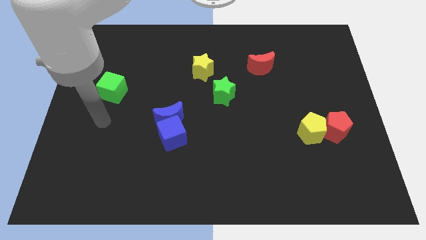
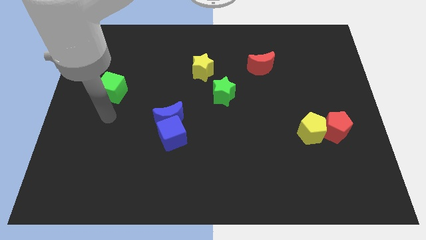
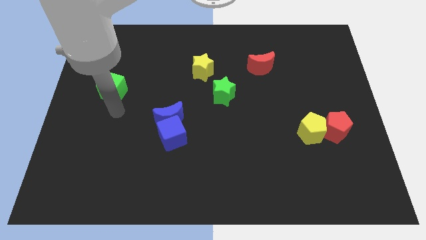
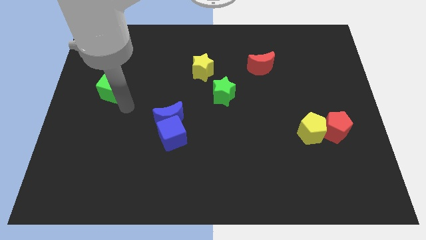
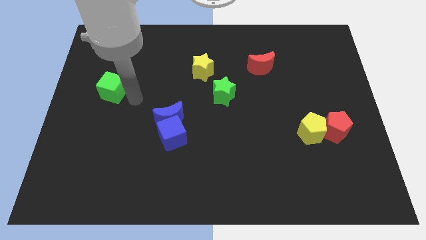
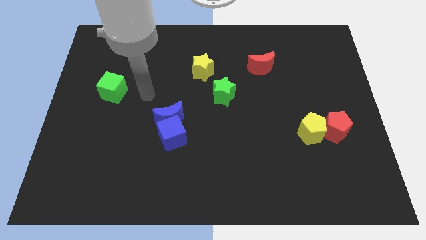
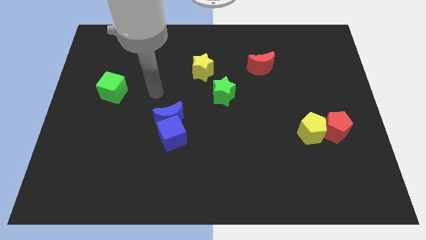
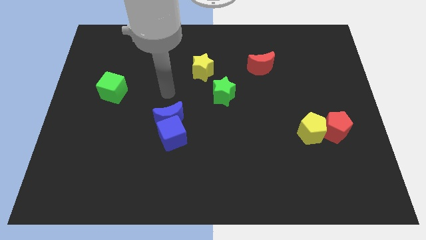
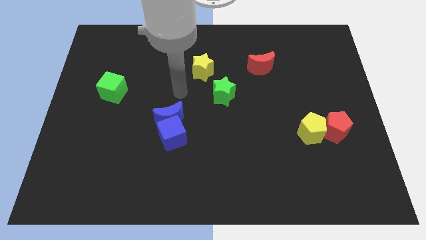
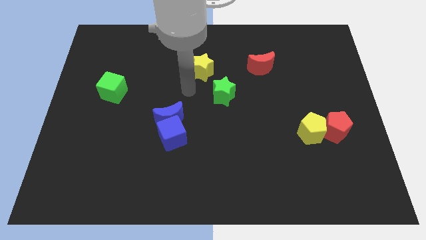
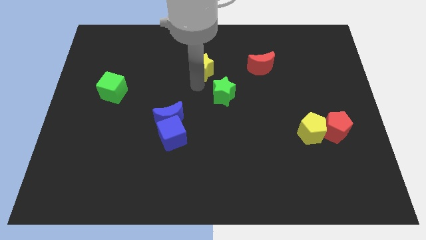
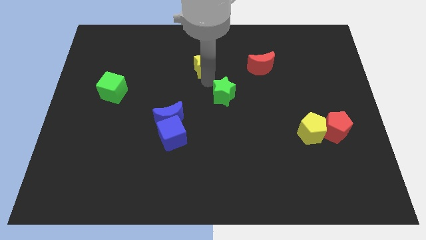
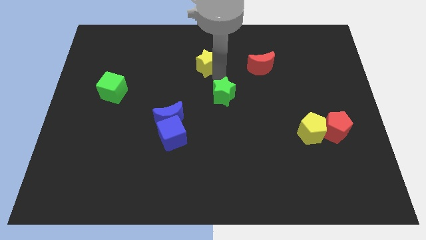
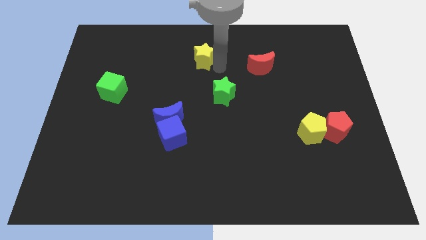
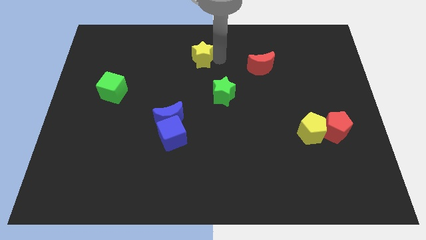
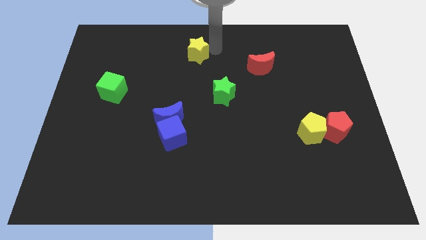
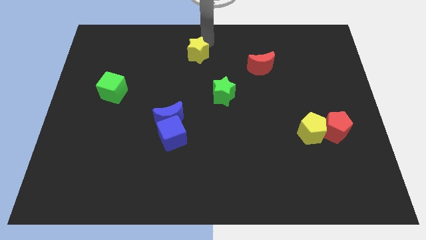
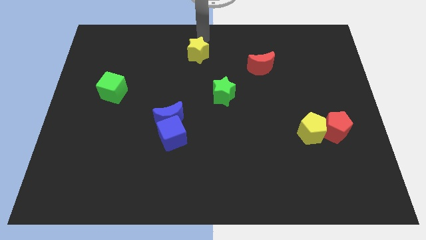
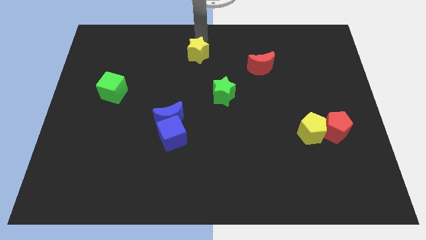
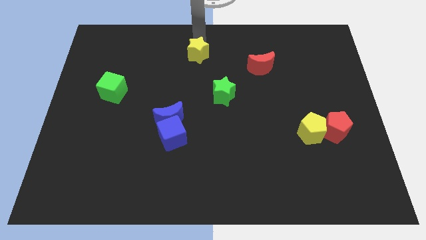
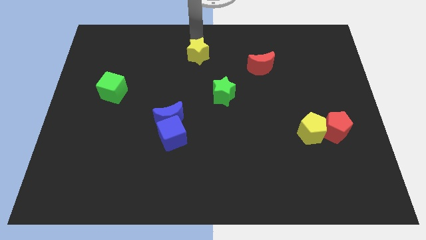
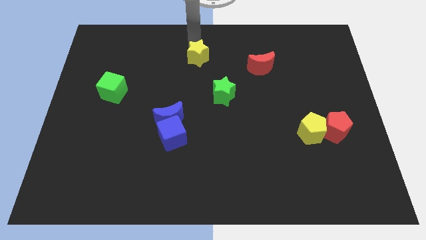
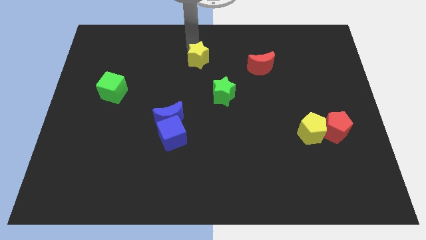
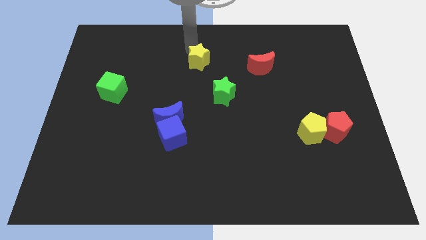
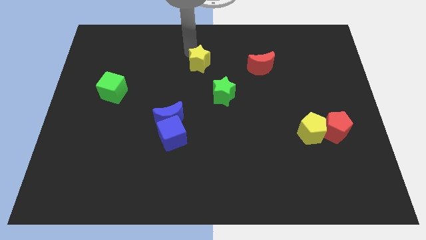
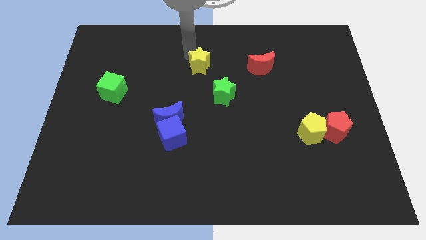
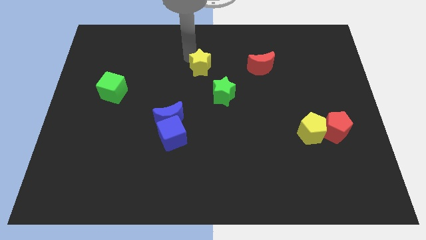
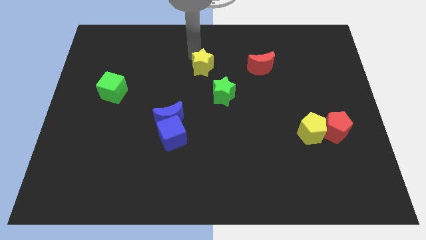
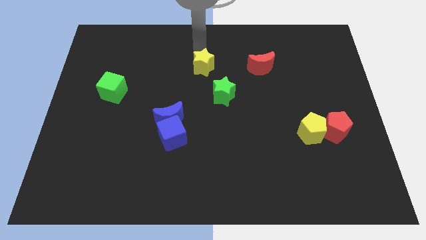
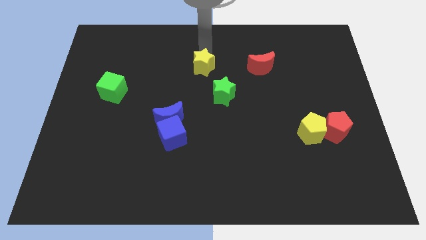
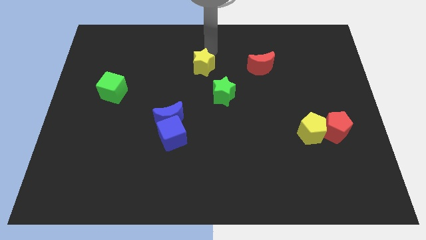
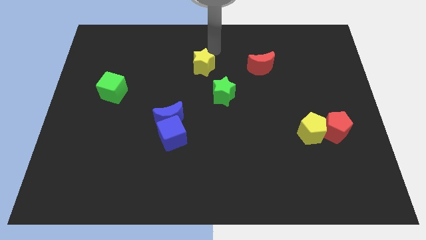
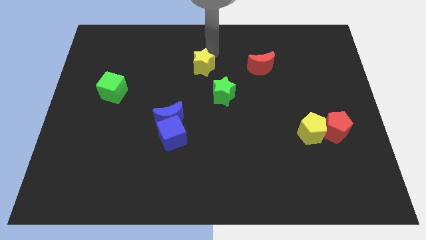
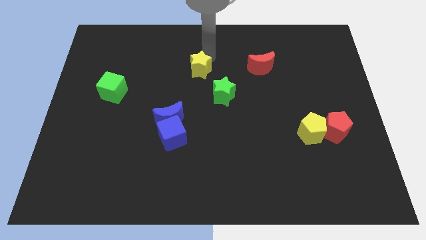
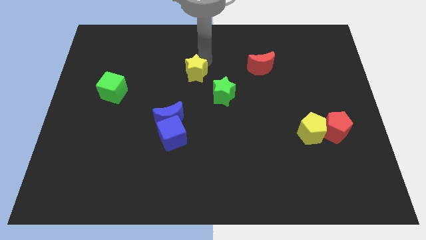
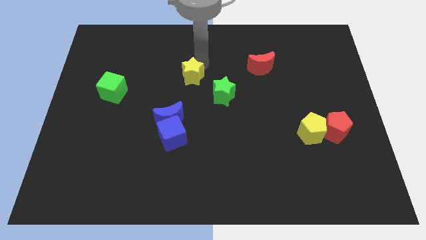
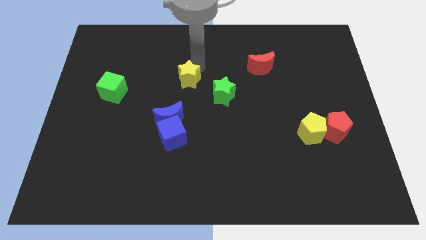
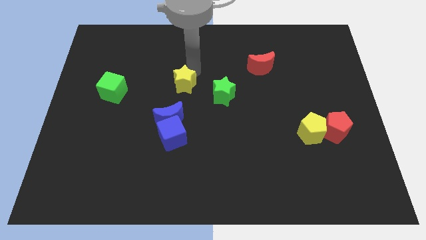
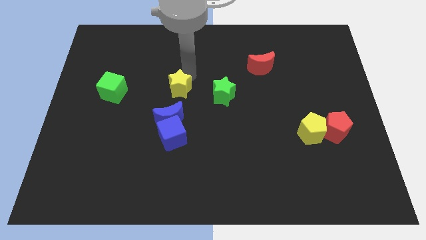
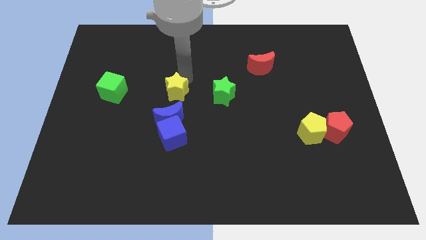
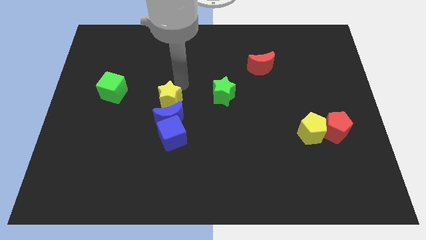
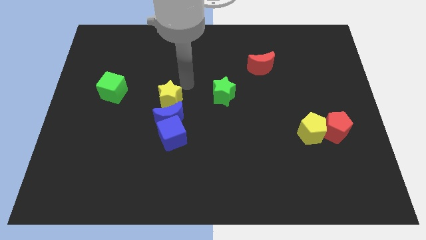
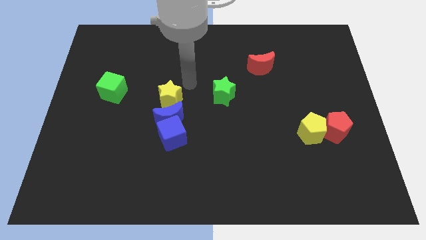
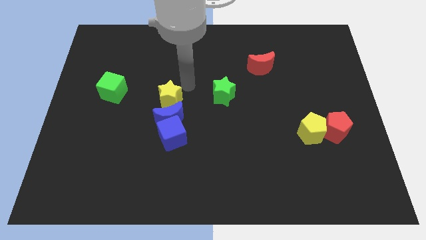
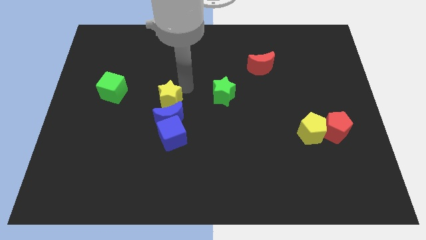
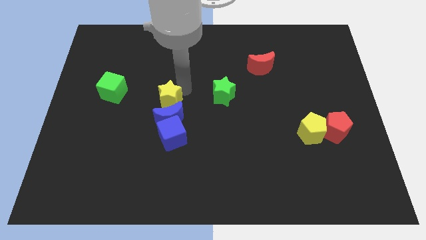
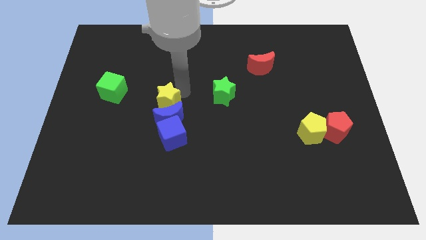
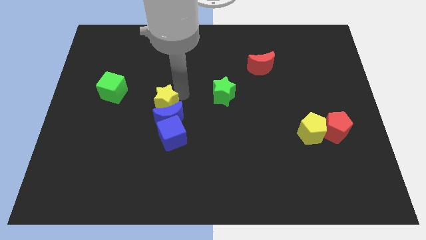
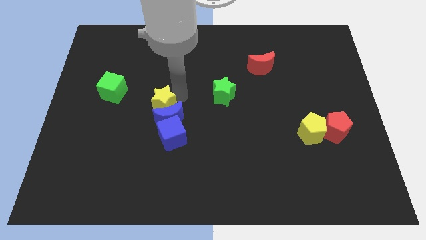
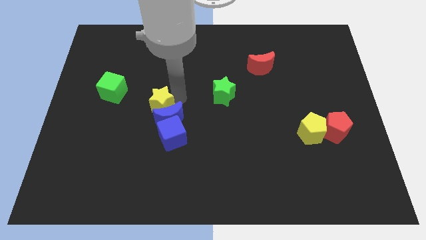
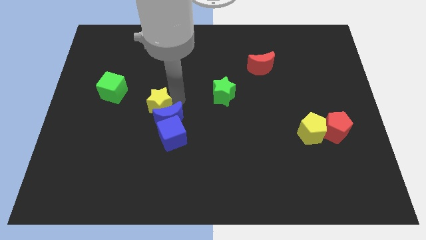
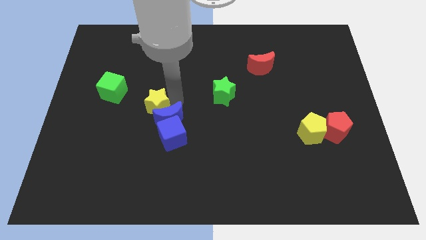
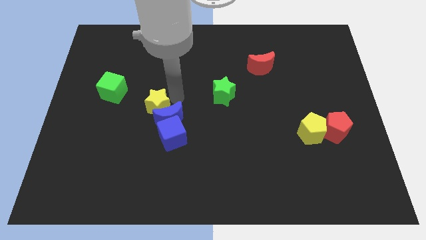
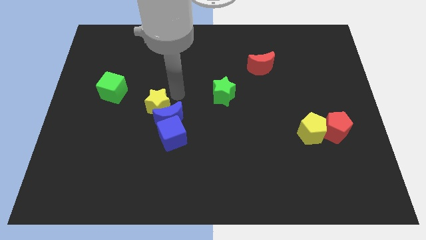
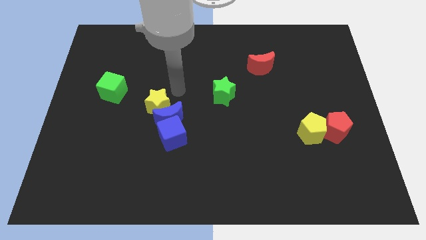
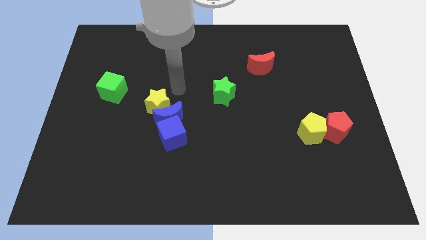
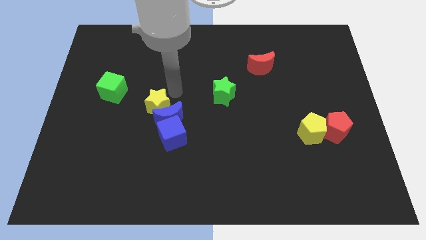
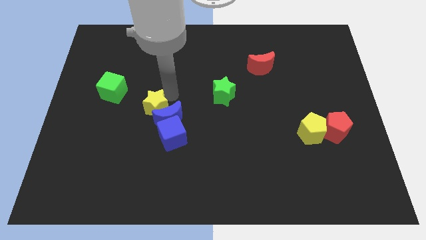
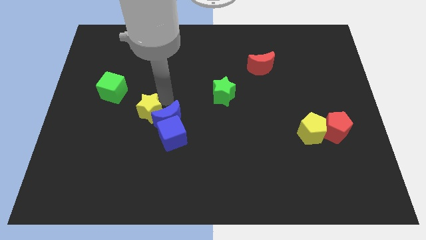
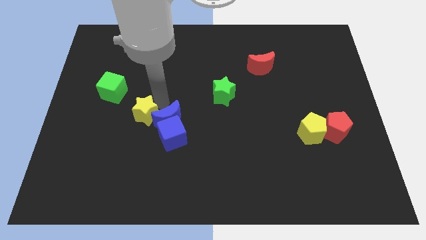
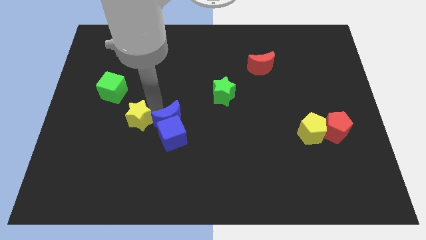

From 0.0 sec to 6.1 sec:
slide the yellow star down and then to the left

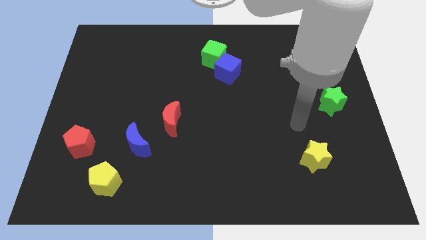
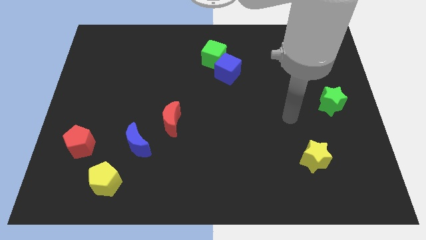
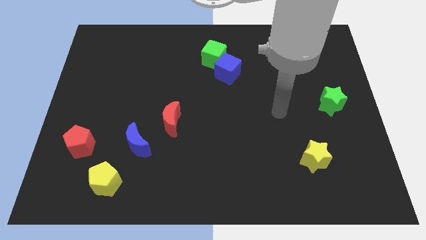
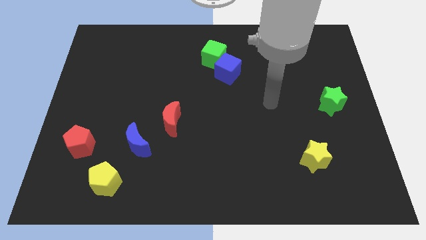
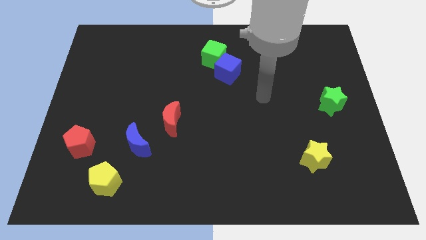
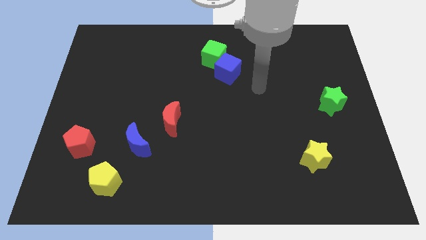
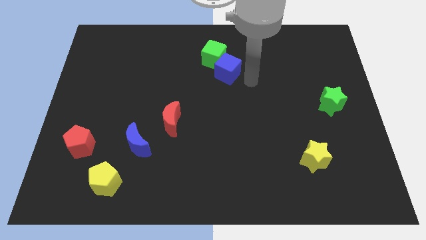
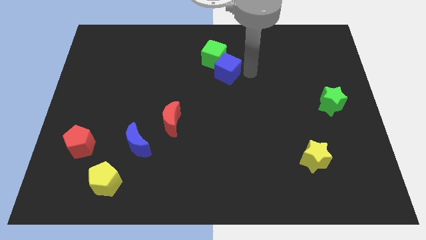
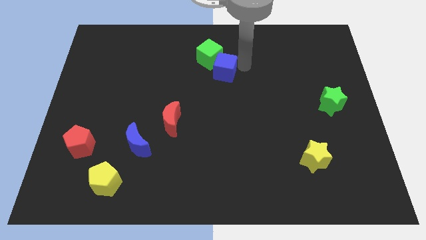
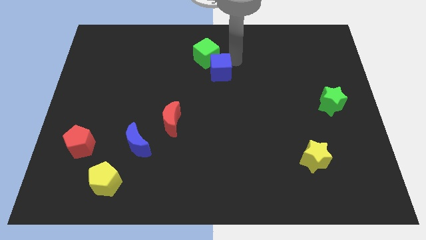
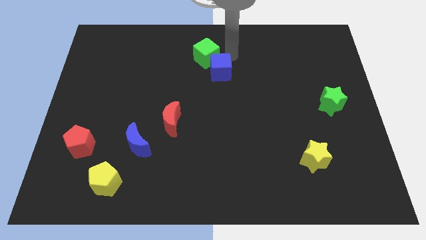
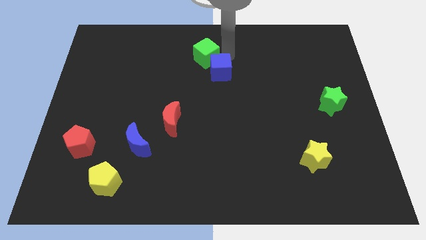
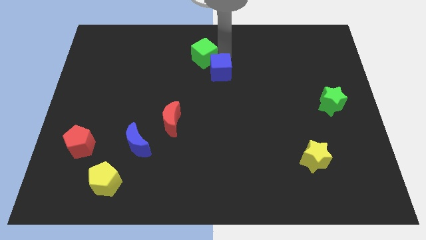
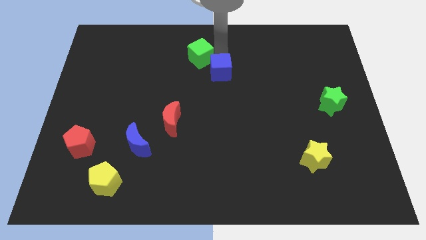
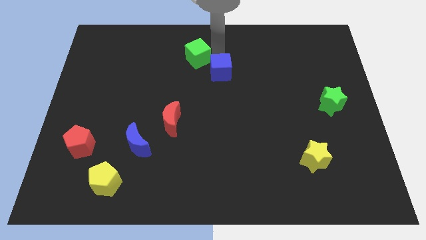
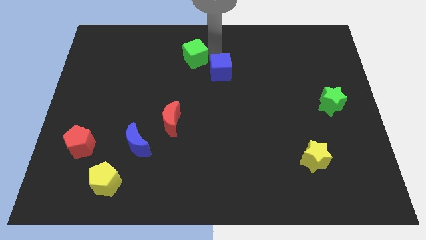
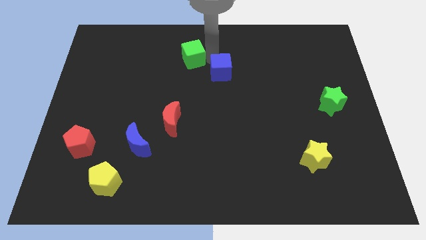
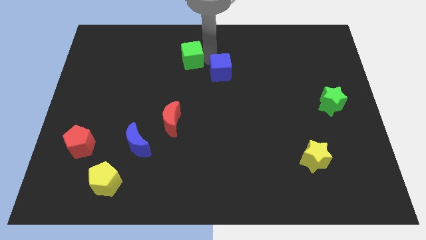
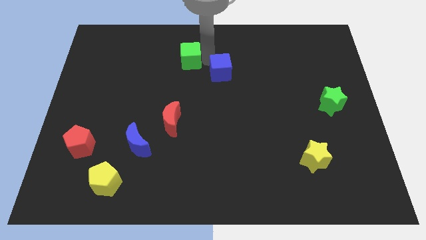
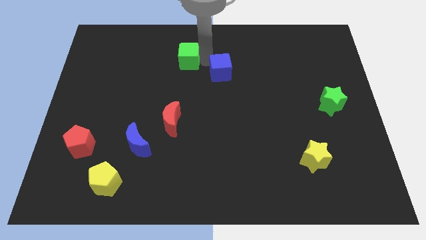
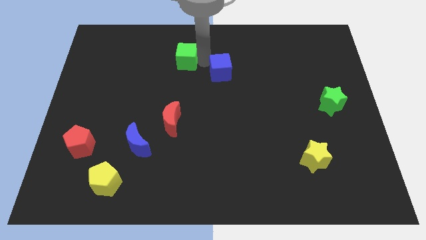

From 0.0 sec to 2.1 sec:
slide the green cube left a little
